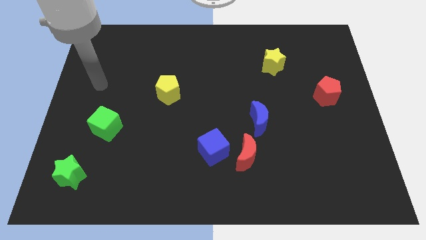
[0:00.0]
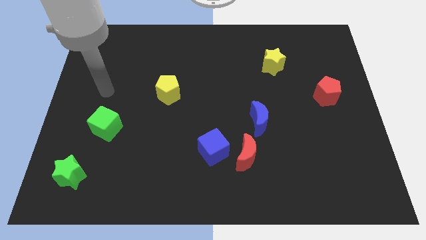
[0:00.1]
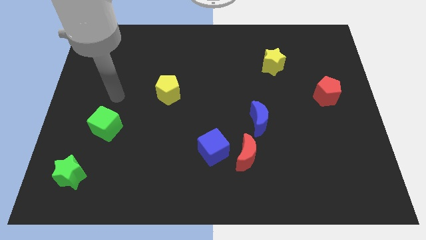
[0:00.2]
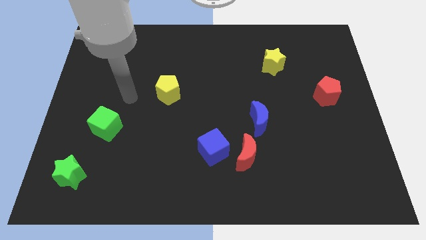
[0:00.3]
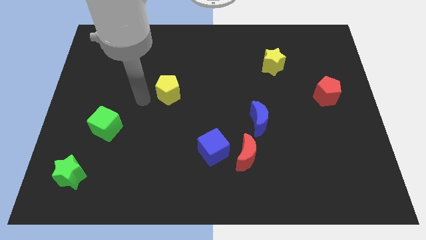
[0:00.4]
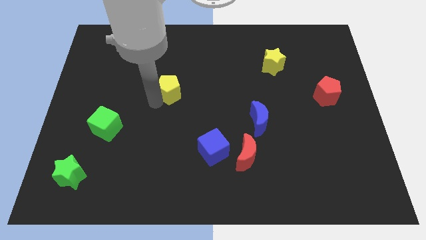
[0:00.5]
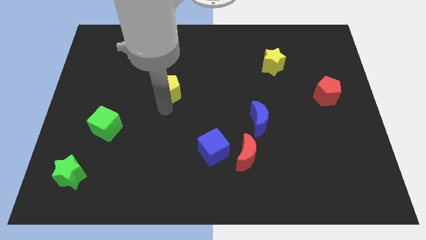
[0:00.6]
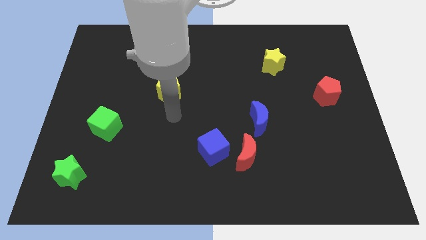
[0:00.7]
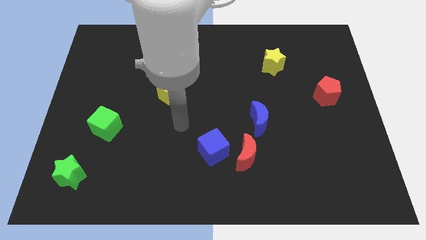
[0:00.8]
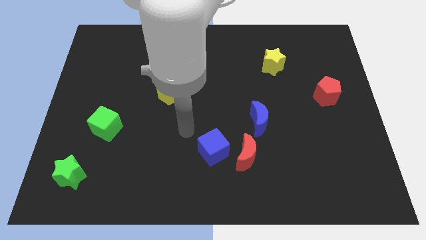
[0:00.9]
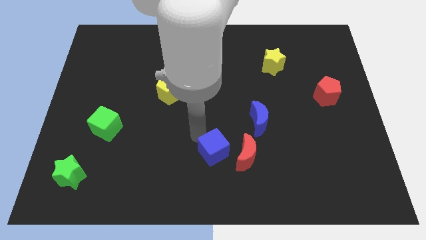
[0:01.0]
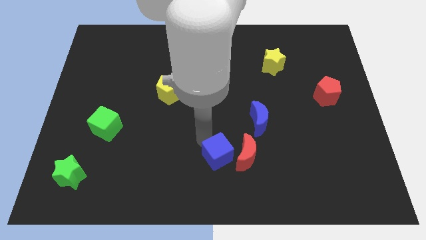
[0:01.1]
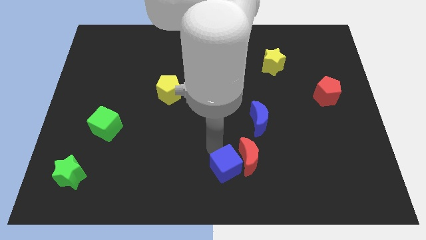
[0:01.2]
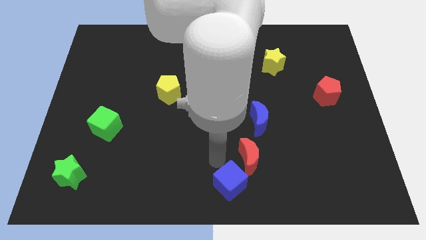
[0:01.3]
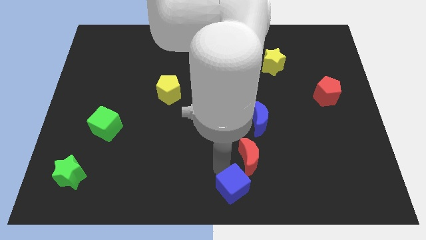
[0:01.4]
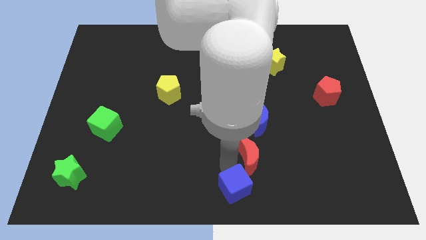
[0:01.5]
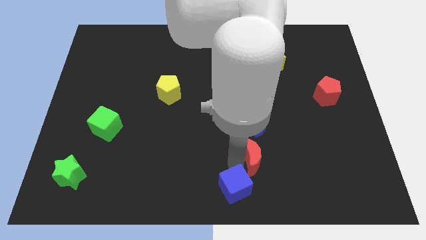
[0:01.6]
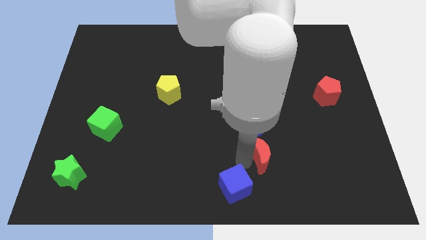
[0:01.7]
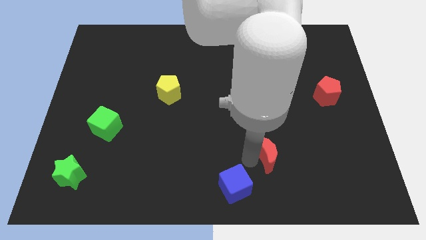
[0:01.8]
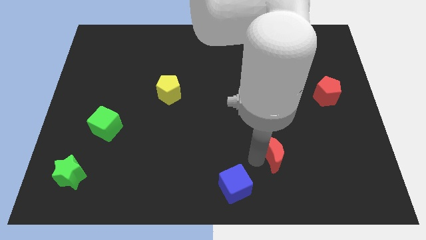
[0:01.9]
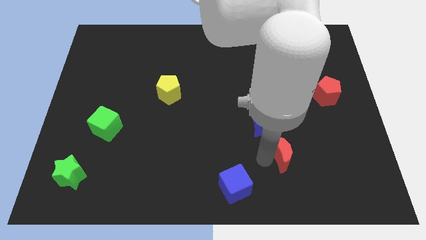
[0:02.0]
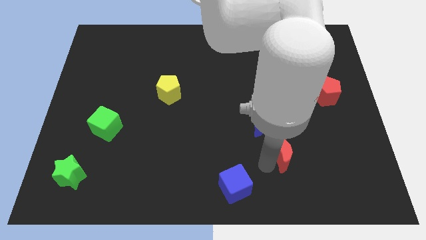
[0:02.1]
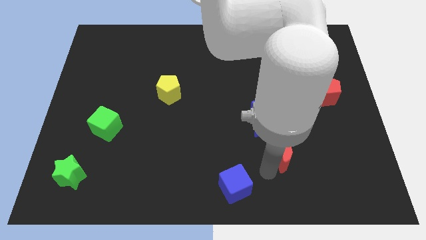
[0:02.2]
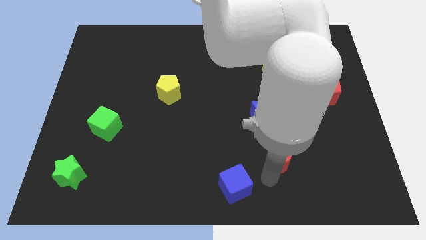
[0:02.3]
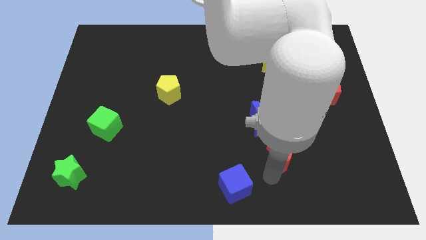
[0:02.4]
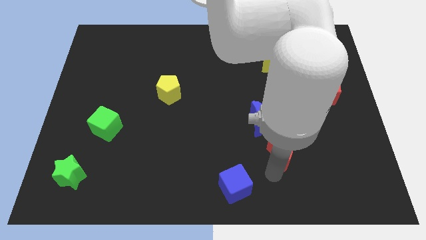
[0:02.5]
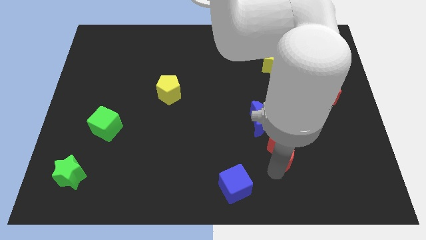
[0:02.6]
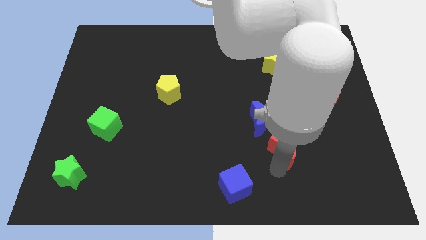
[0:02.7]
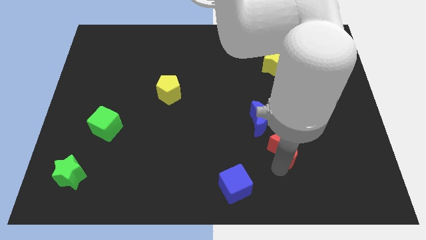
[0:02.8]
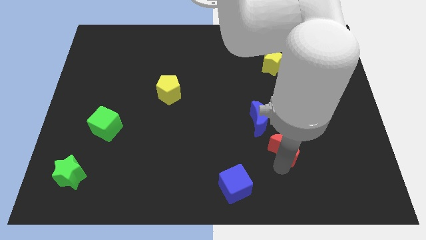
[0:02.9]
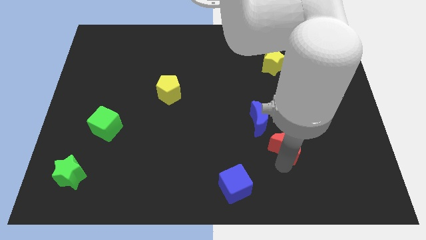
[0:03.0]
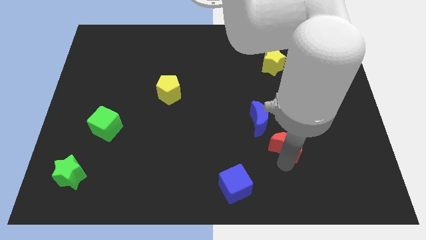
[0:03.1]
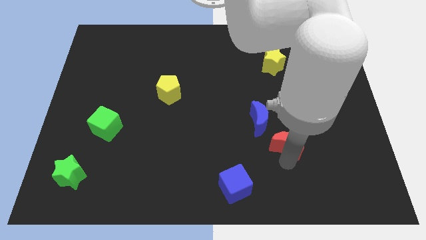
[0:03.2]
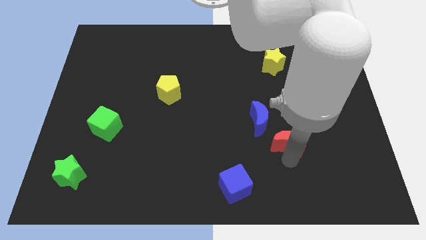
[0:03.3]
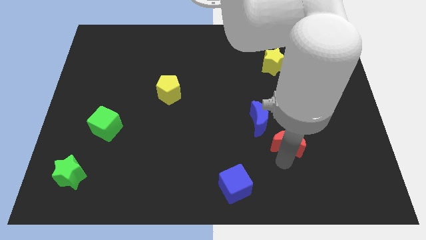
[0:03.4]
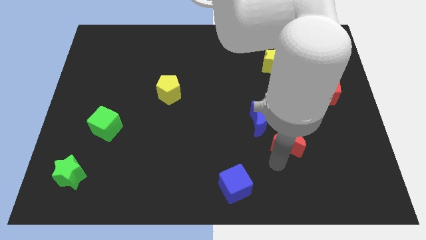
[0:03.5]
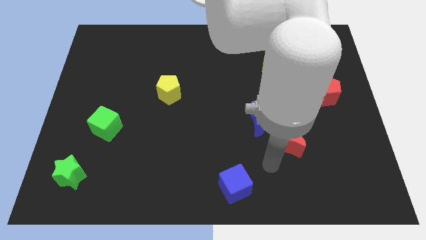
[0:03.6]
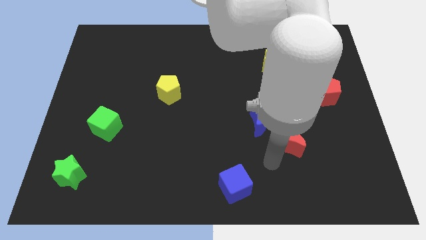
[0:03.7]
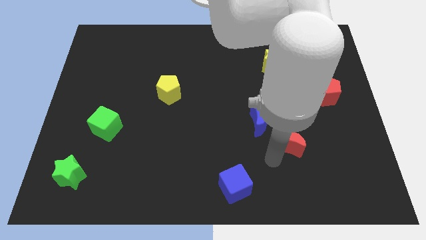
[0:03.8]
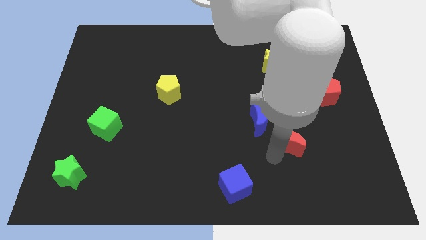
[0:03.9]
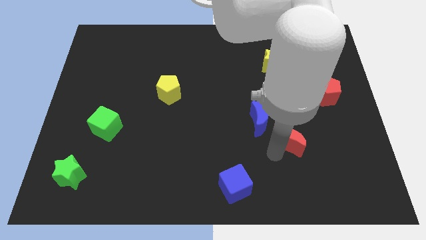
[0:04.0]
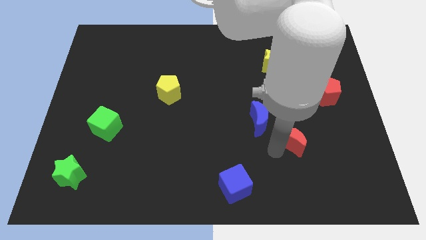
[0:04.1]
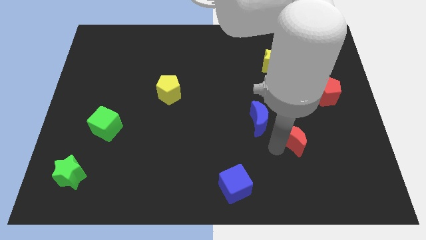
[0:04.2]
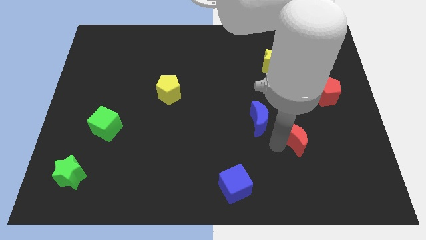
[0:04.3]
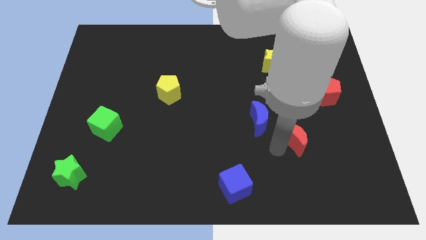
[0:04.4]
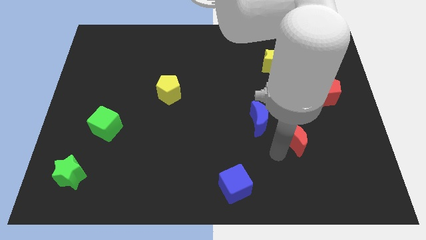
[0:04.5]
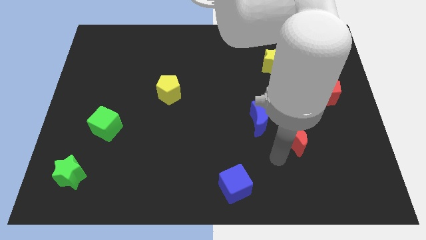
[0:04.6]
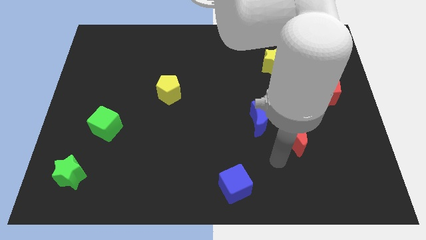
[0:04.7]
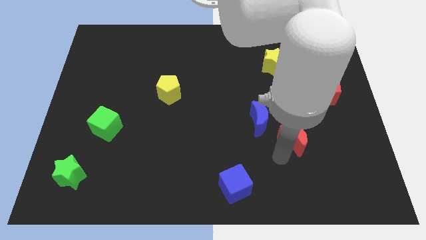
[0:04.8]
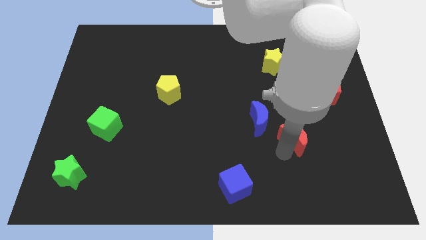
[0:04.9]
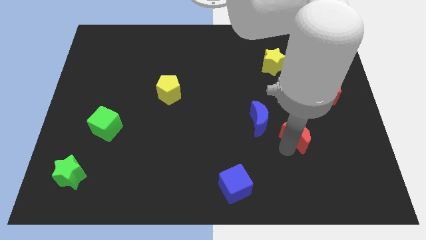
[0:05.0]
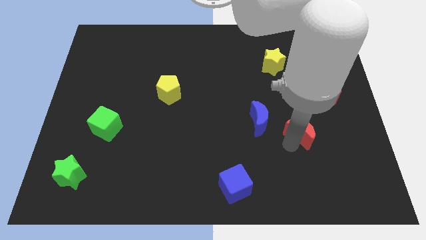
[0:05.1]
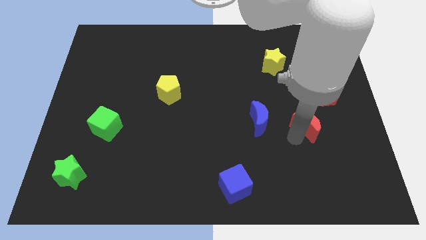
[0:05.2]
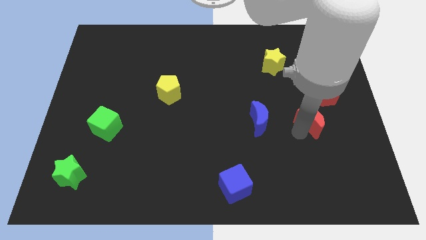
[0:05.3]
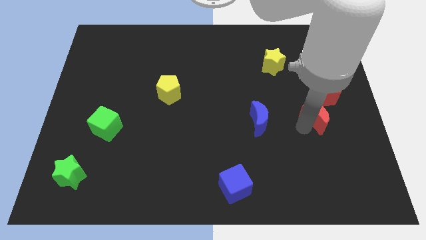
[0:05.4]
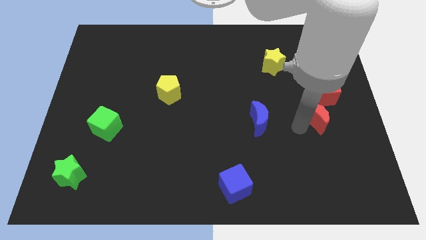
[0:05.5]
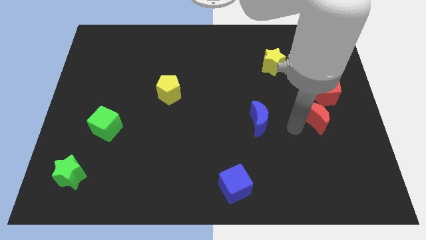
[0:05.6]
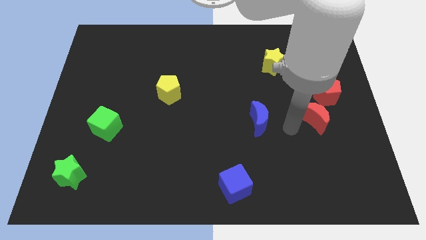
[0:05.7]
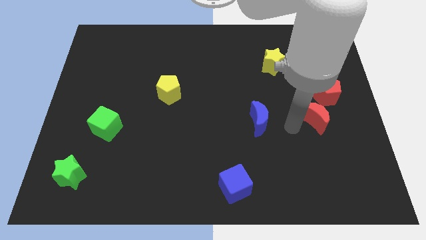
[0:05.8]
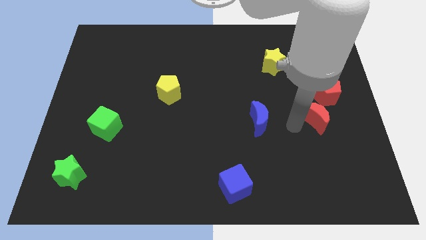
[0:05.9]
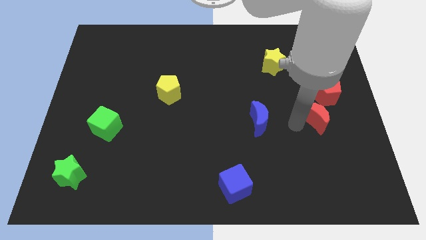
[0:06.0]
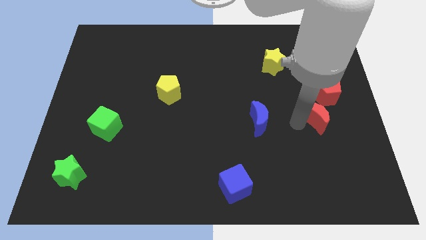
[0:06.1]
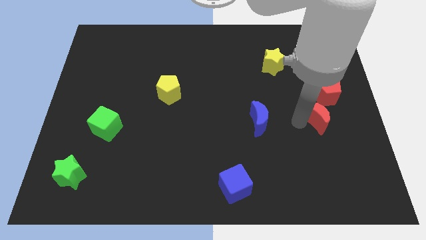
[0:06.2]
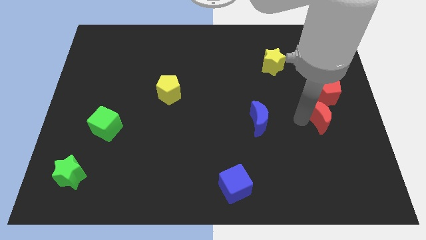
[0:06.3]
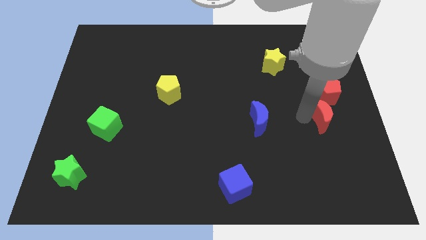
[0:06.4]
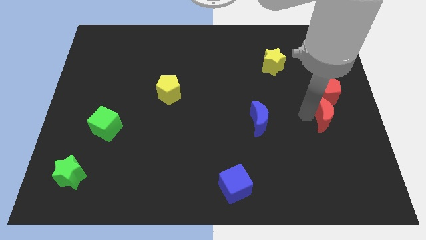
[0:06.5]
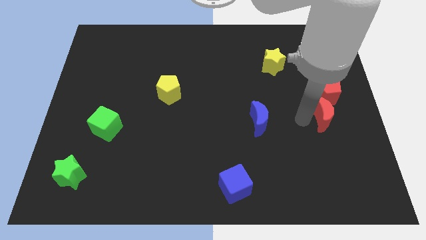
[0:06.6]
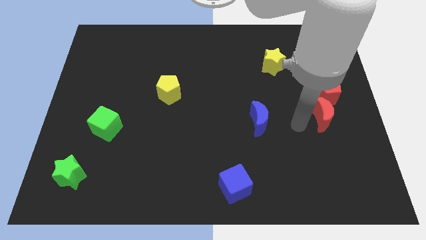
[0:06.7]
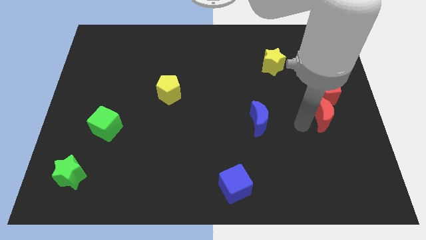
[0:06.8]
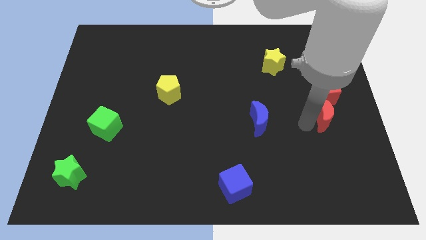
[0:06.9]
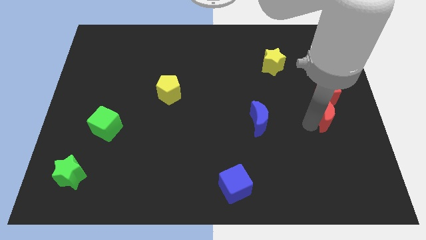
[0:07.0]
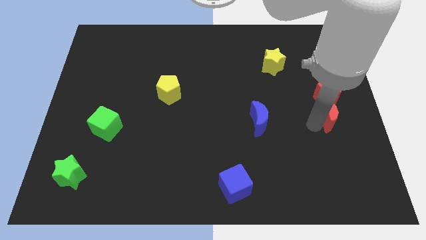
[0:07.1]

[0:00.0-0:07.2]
slide the red moon to the right side
